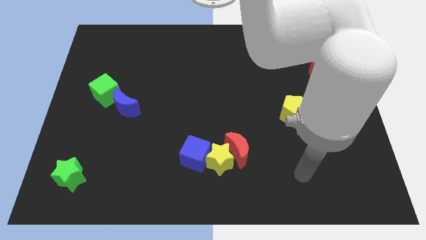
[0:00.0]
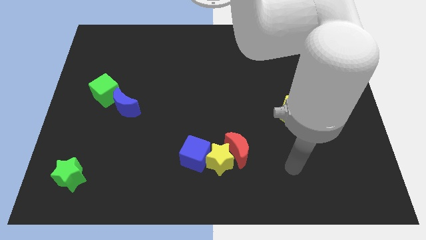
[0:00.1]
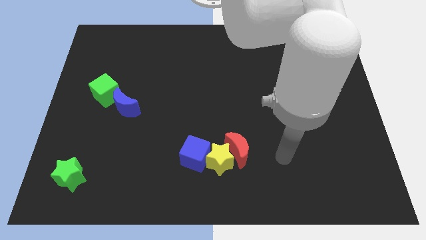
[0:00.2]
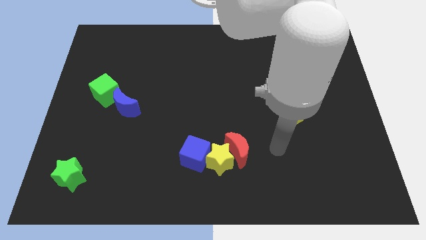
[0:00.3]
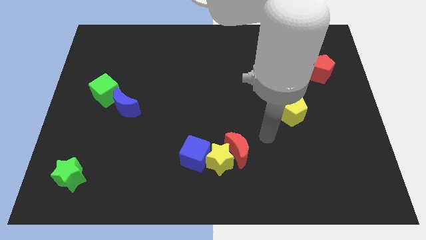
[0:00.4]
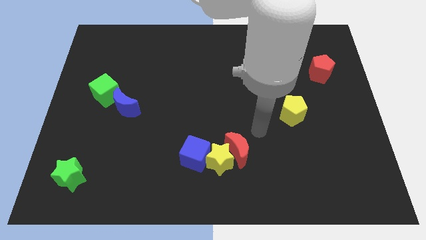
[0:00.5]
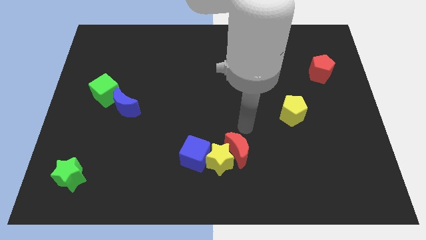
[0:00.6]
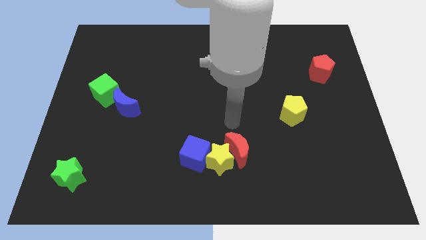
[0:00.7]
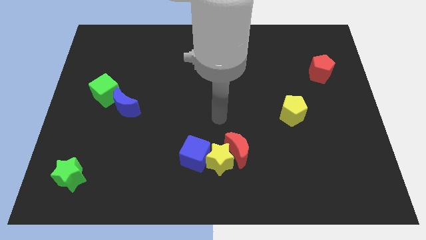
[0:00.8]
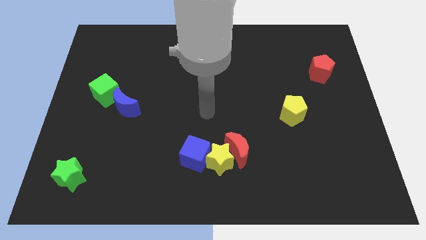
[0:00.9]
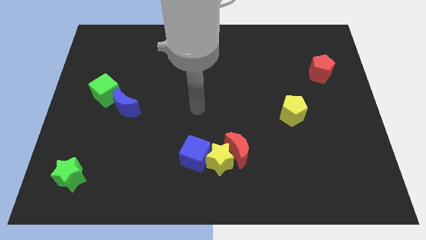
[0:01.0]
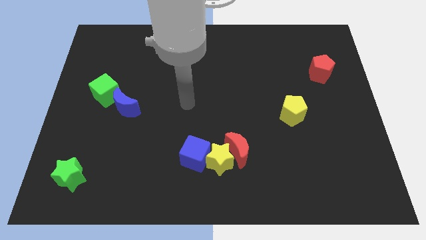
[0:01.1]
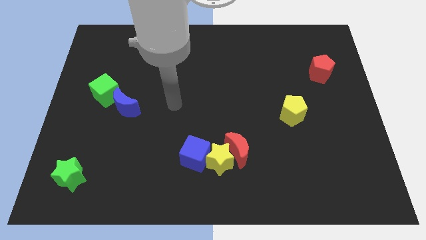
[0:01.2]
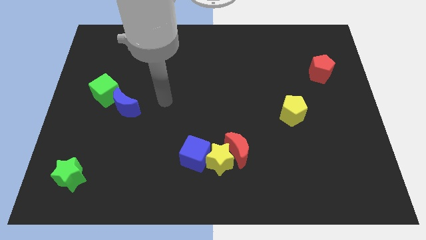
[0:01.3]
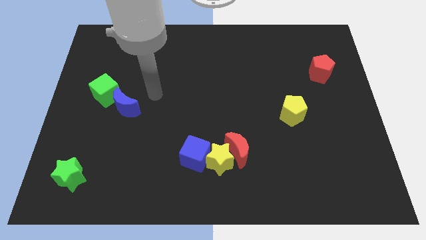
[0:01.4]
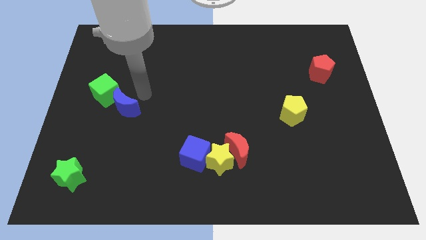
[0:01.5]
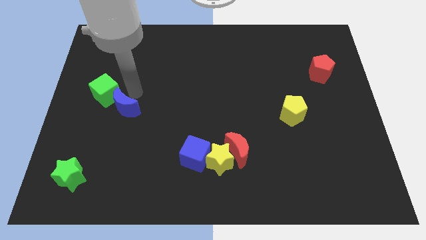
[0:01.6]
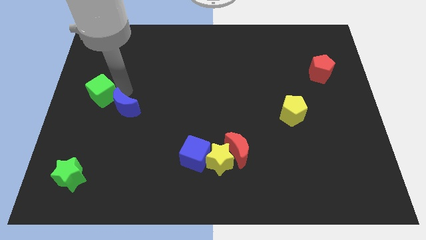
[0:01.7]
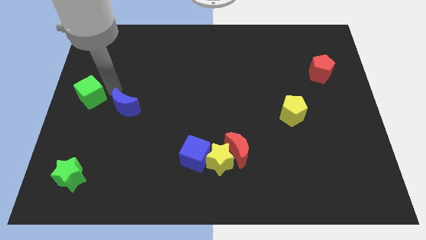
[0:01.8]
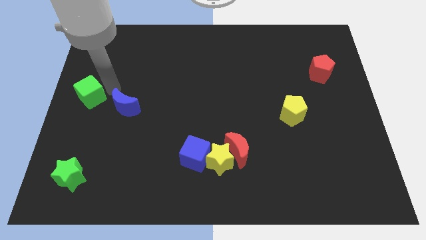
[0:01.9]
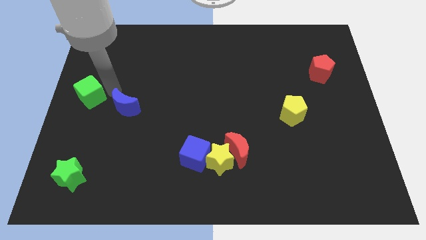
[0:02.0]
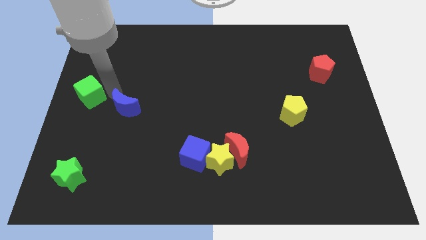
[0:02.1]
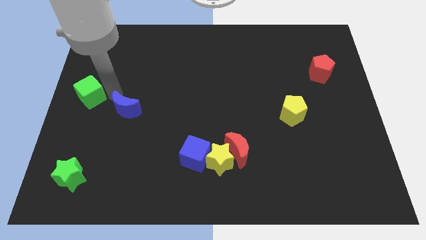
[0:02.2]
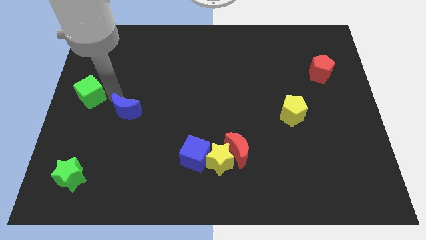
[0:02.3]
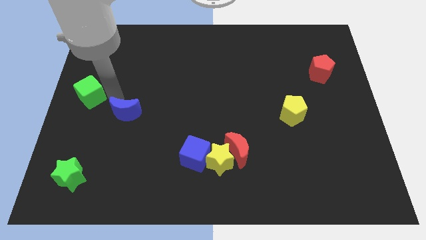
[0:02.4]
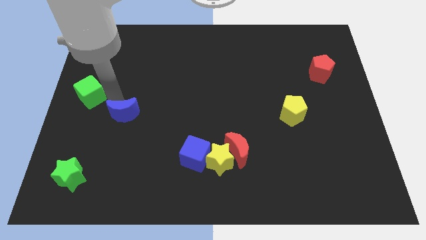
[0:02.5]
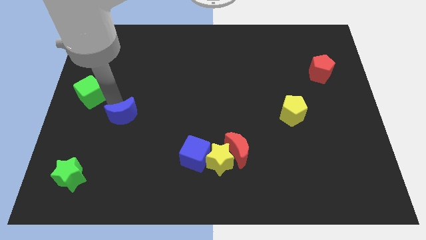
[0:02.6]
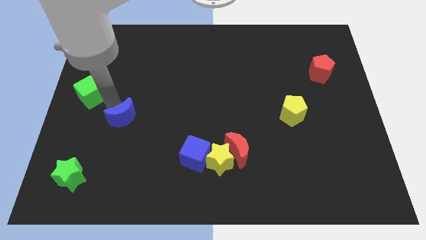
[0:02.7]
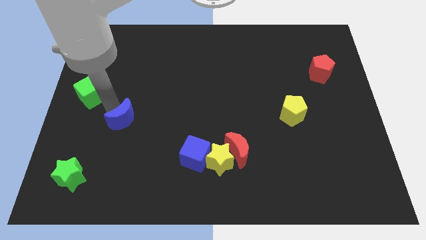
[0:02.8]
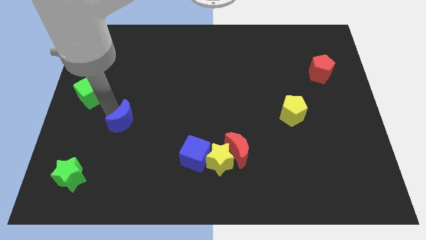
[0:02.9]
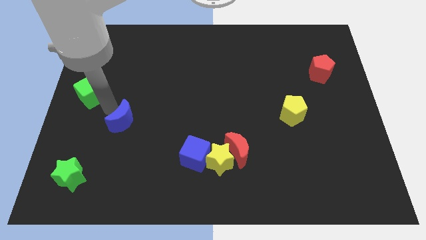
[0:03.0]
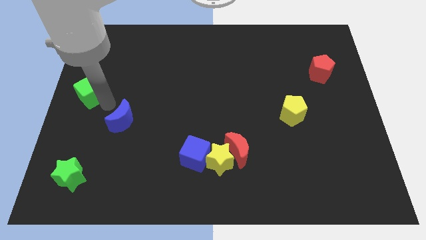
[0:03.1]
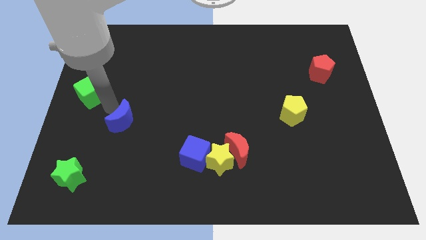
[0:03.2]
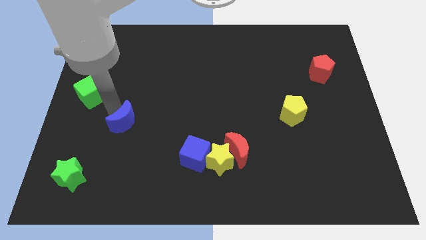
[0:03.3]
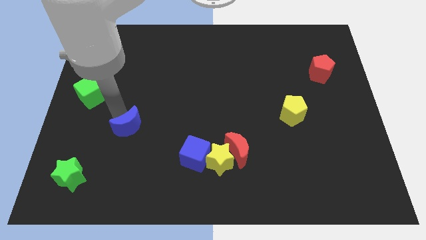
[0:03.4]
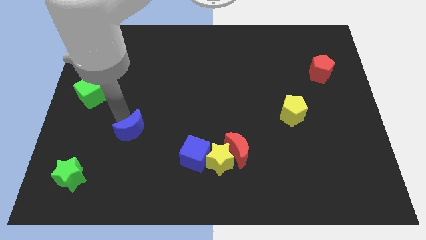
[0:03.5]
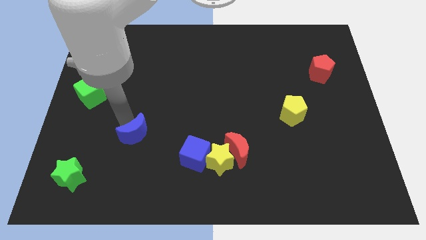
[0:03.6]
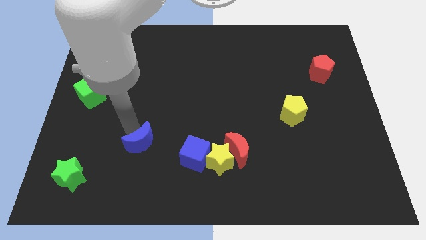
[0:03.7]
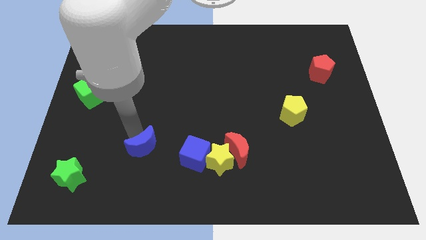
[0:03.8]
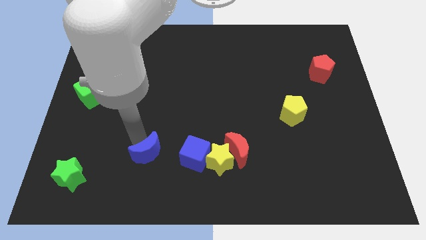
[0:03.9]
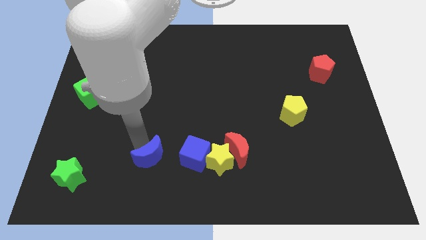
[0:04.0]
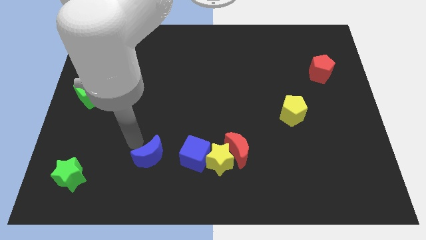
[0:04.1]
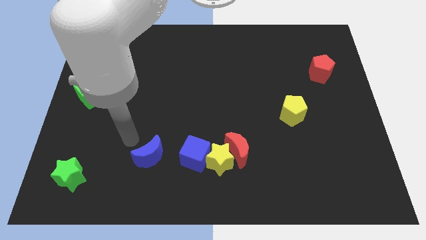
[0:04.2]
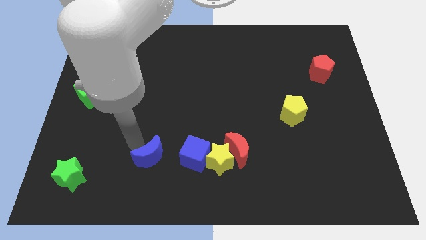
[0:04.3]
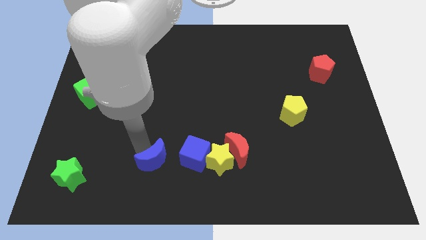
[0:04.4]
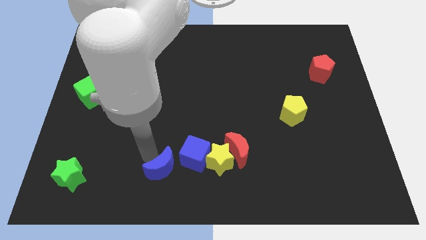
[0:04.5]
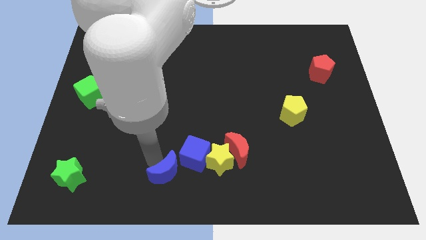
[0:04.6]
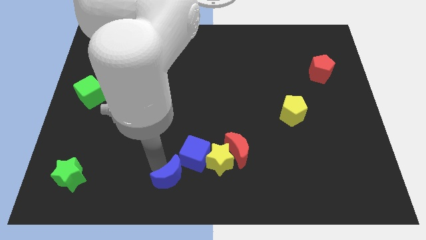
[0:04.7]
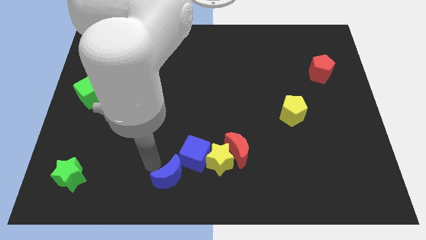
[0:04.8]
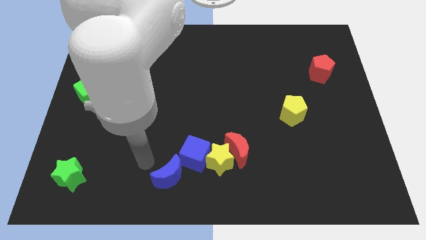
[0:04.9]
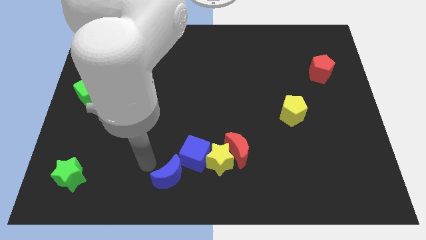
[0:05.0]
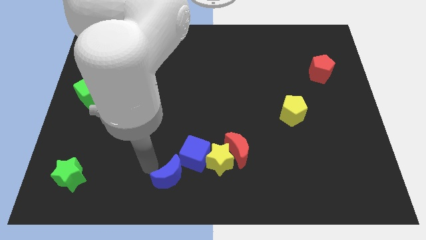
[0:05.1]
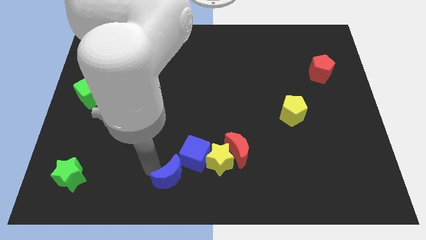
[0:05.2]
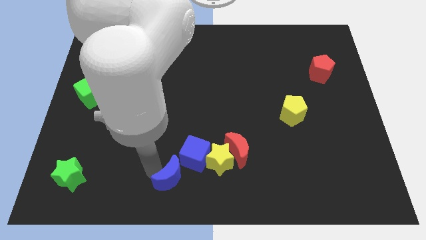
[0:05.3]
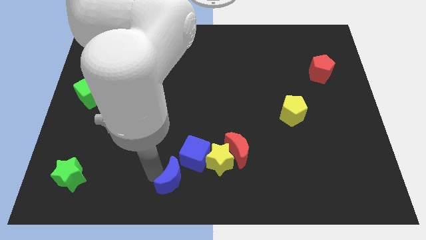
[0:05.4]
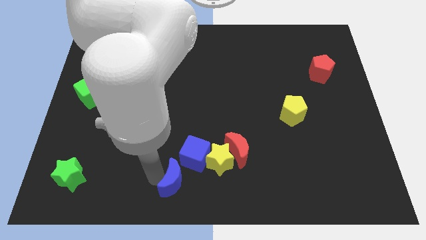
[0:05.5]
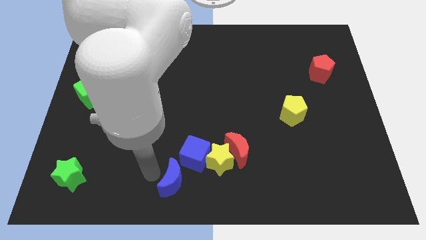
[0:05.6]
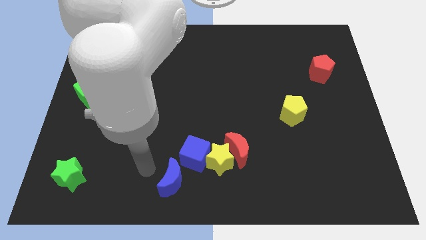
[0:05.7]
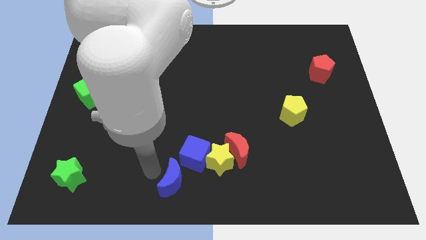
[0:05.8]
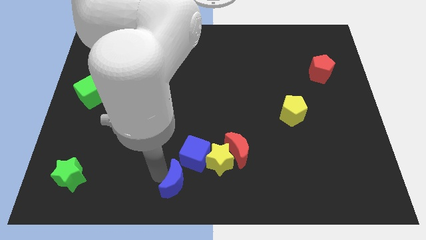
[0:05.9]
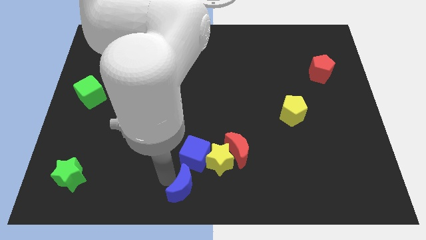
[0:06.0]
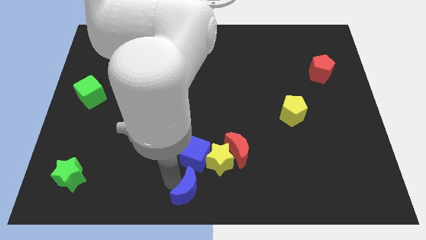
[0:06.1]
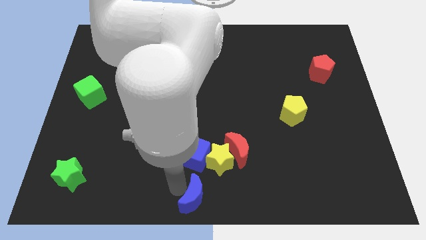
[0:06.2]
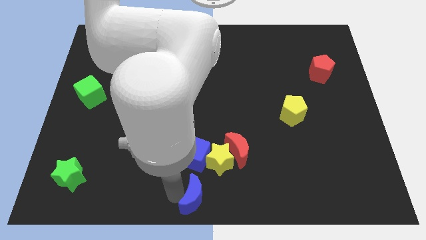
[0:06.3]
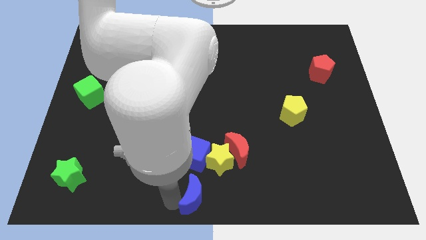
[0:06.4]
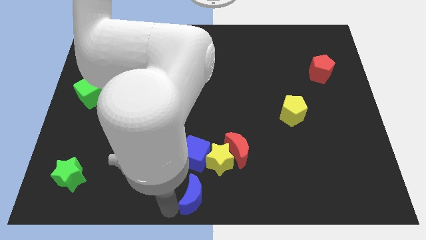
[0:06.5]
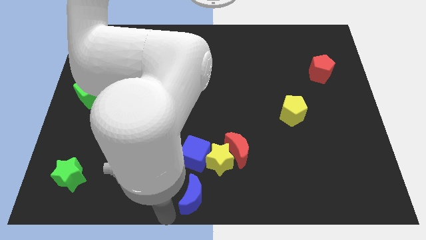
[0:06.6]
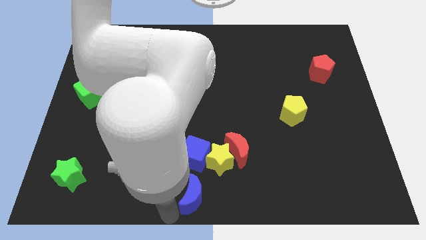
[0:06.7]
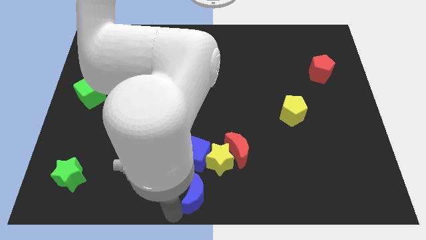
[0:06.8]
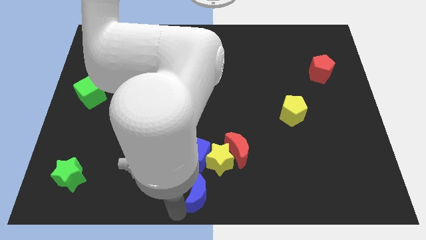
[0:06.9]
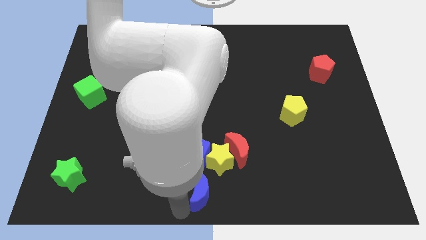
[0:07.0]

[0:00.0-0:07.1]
move the blue moon to the bottom right side of the blue cube

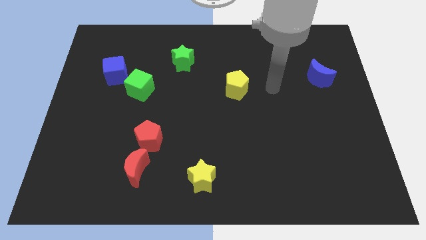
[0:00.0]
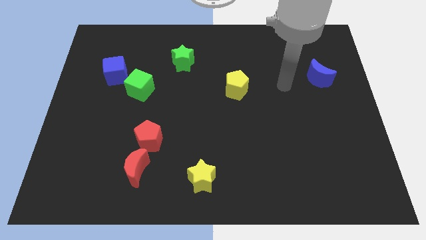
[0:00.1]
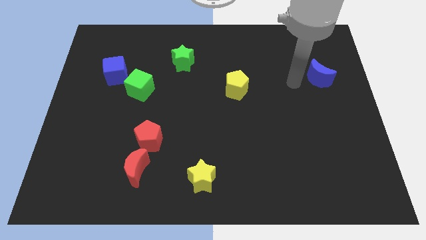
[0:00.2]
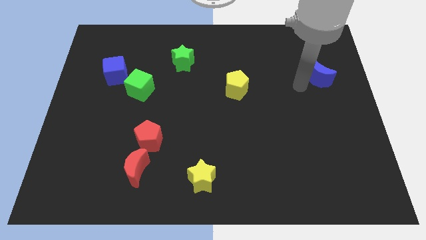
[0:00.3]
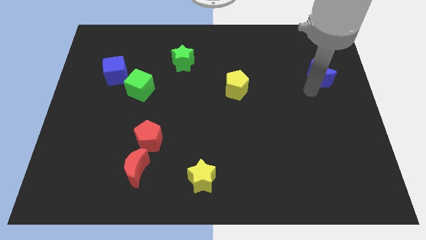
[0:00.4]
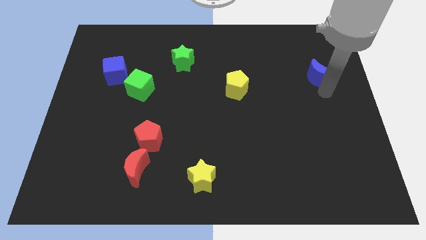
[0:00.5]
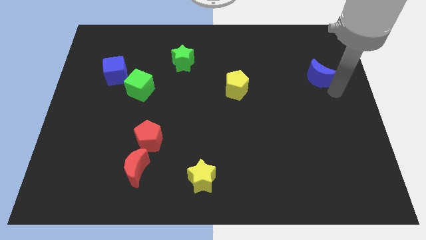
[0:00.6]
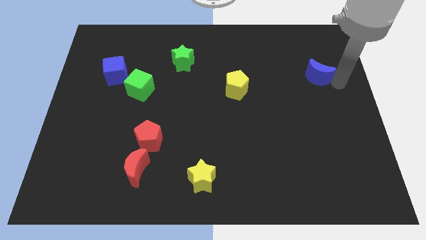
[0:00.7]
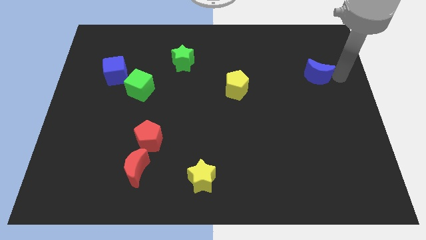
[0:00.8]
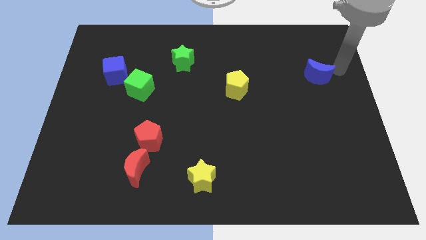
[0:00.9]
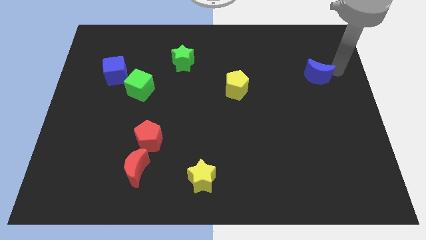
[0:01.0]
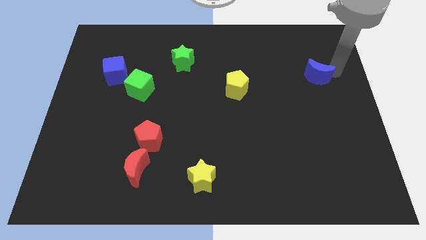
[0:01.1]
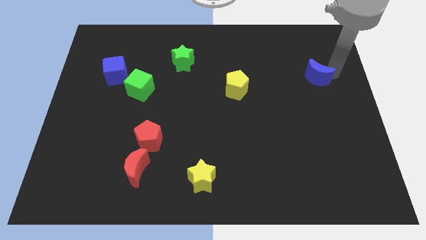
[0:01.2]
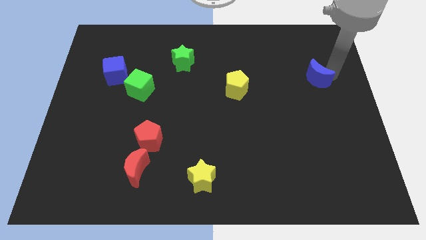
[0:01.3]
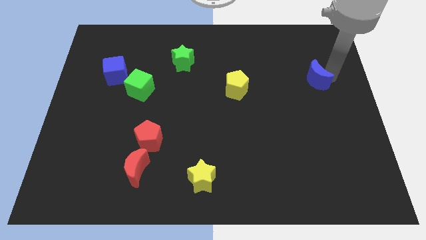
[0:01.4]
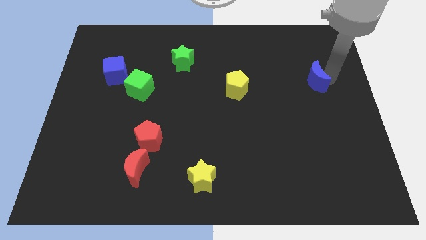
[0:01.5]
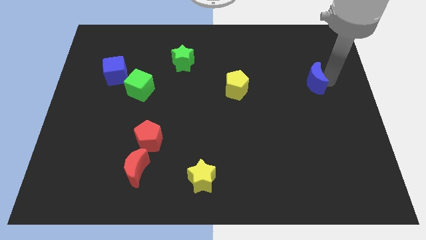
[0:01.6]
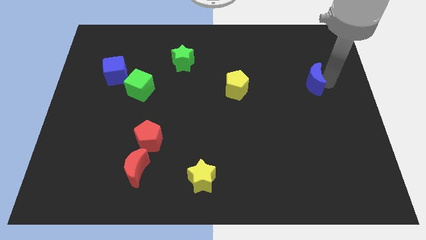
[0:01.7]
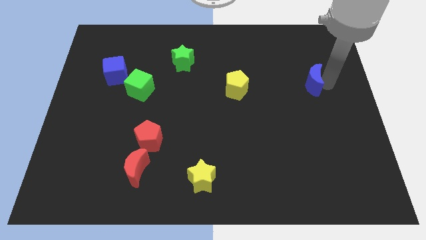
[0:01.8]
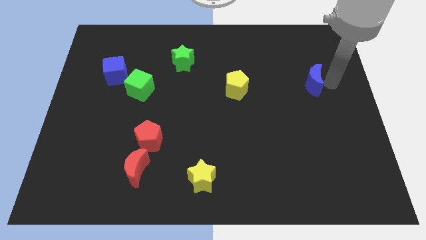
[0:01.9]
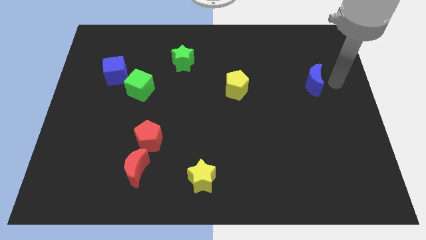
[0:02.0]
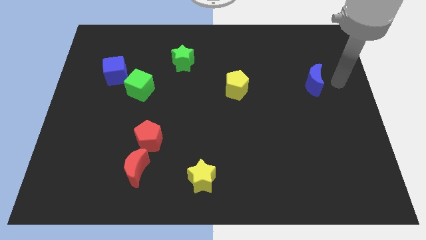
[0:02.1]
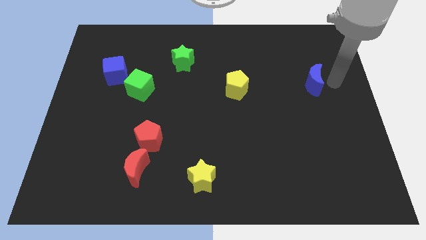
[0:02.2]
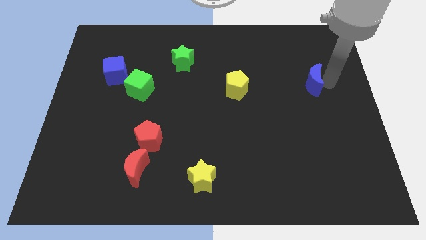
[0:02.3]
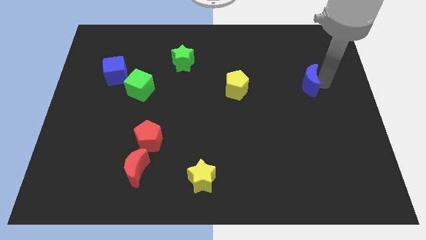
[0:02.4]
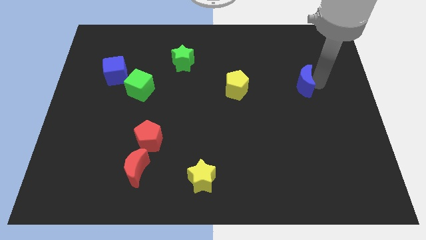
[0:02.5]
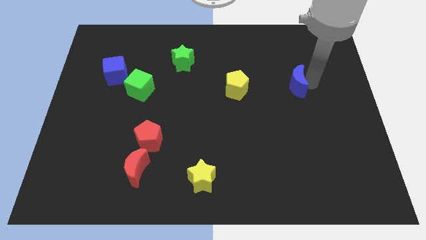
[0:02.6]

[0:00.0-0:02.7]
push the blue moon to the right side of the yellow pentagon
